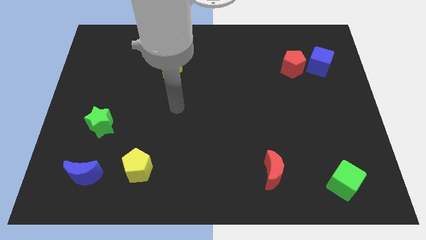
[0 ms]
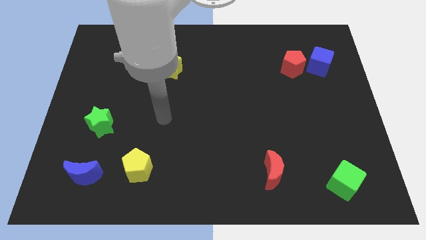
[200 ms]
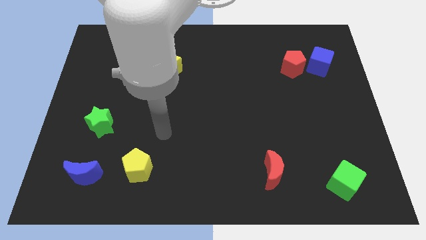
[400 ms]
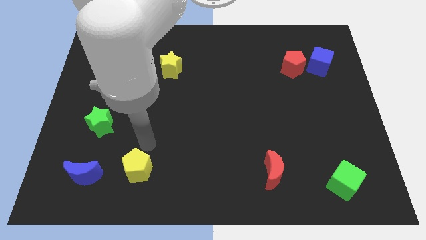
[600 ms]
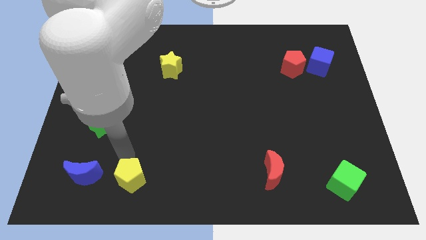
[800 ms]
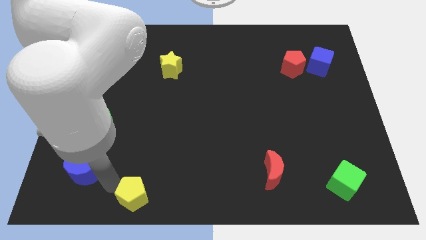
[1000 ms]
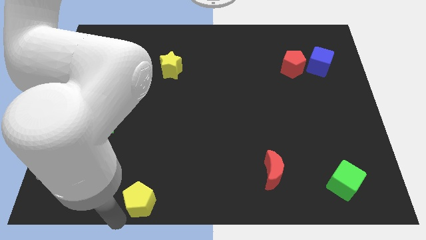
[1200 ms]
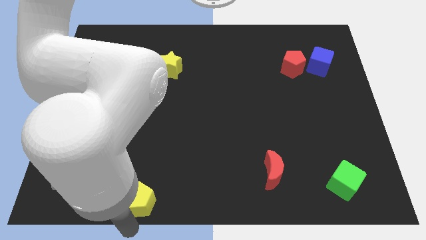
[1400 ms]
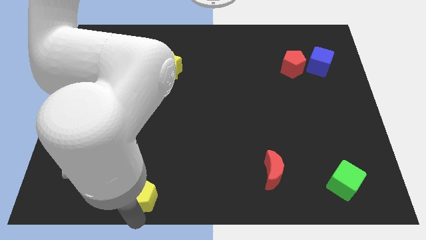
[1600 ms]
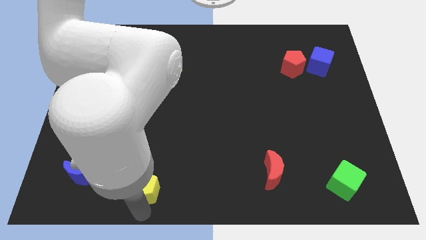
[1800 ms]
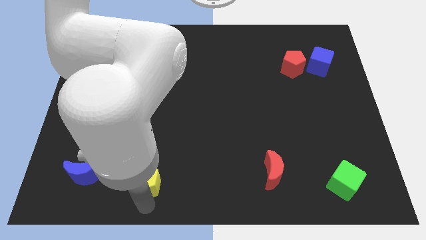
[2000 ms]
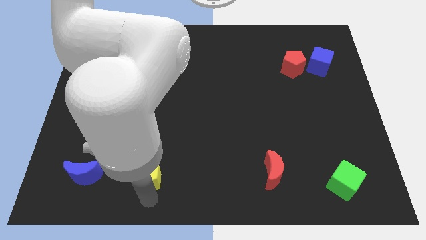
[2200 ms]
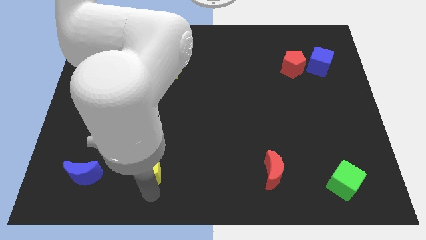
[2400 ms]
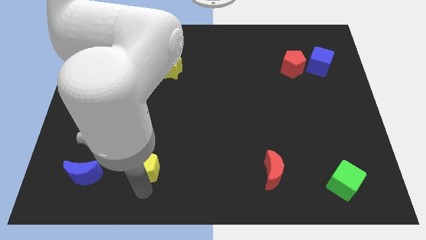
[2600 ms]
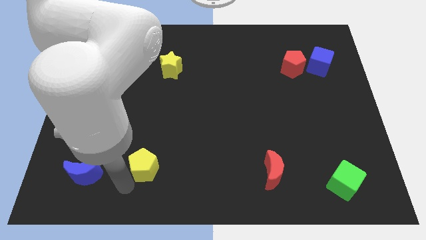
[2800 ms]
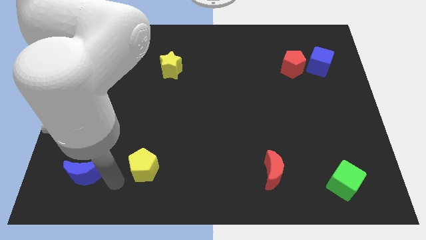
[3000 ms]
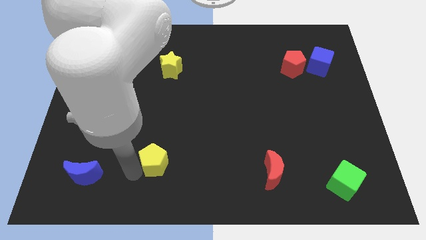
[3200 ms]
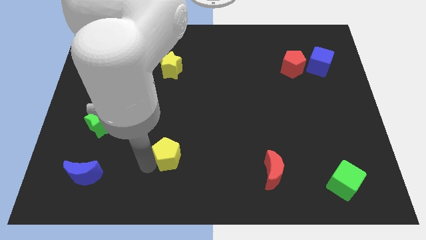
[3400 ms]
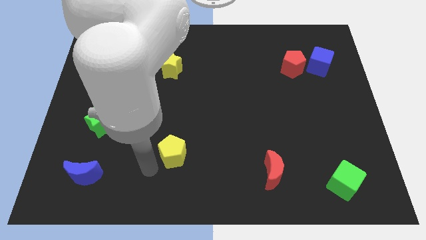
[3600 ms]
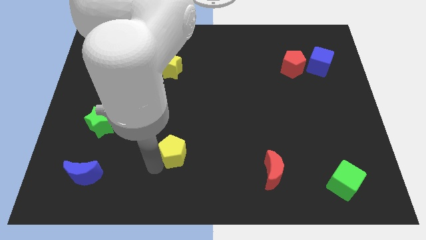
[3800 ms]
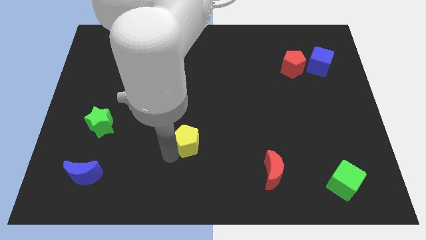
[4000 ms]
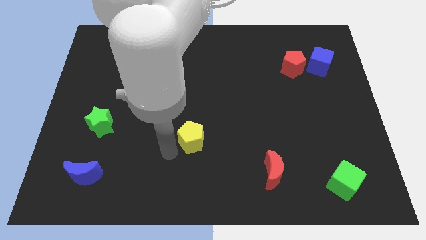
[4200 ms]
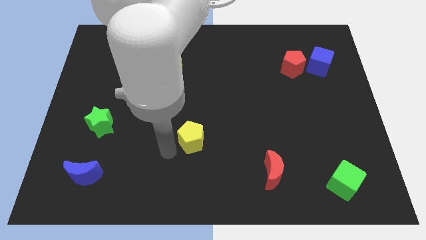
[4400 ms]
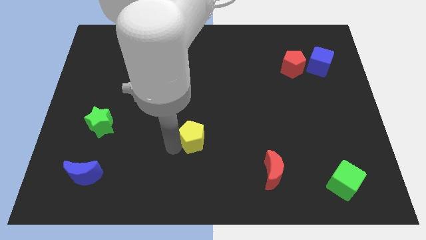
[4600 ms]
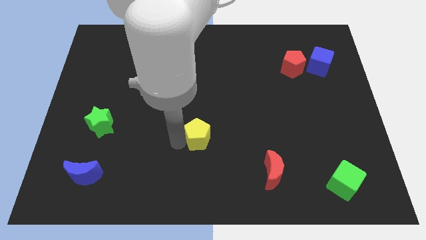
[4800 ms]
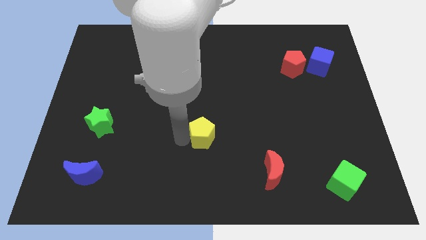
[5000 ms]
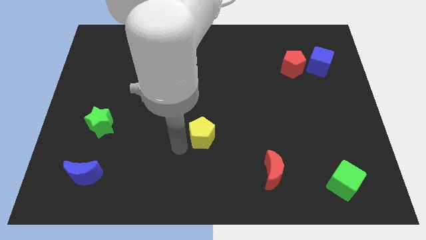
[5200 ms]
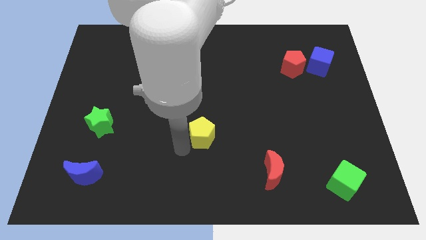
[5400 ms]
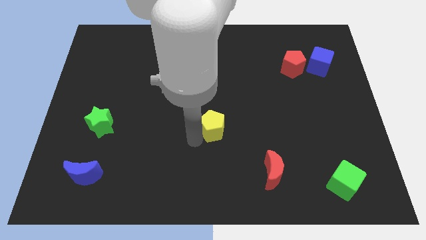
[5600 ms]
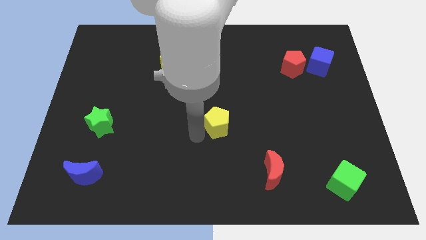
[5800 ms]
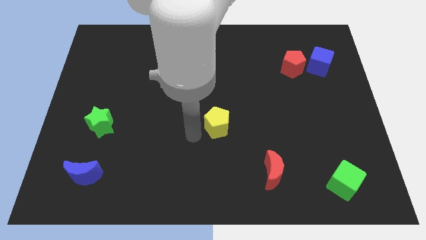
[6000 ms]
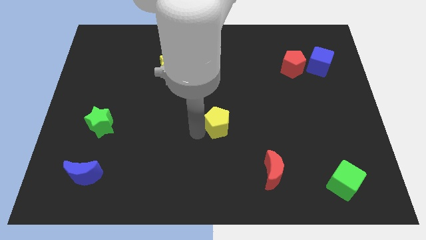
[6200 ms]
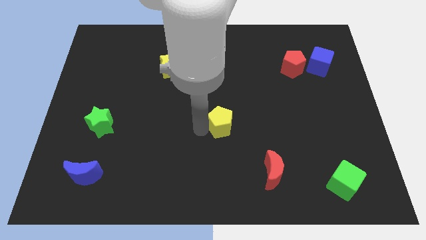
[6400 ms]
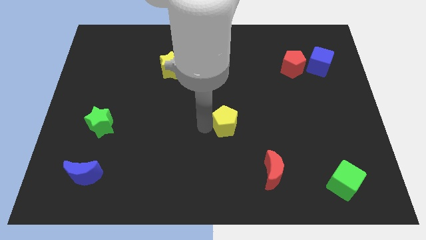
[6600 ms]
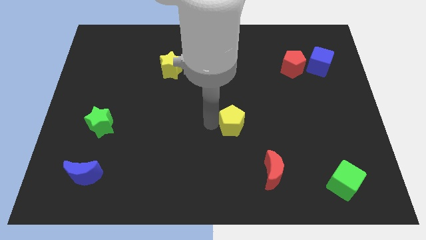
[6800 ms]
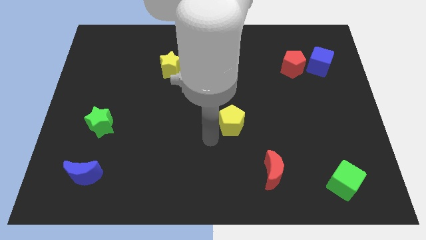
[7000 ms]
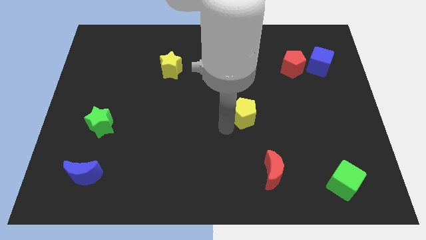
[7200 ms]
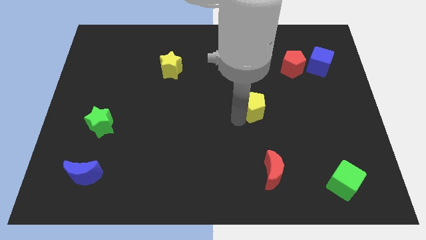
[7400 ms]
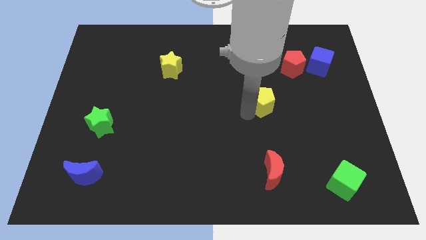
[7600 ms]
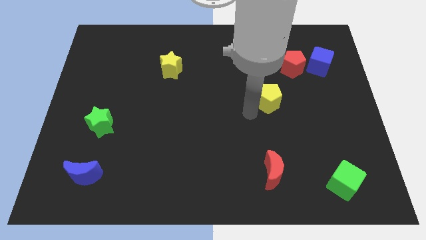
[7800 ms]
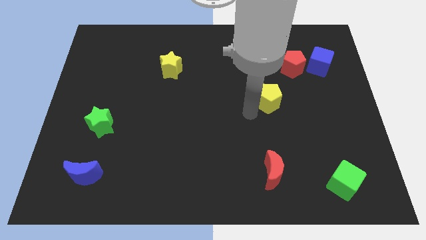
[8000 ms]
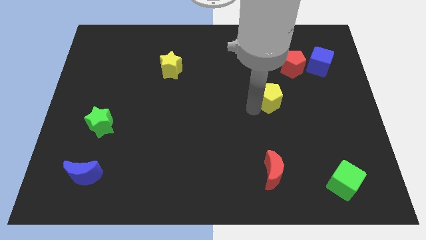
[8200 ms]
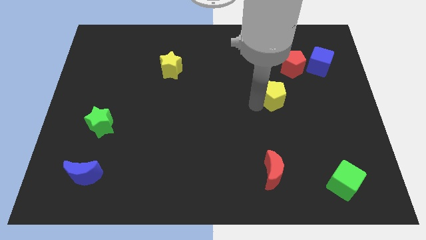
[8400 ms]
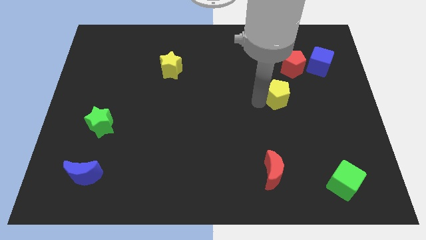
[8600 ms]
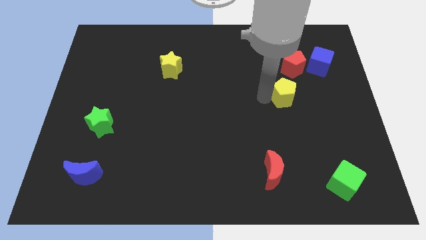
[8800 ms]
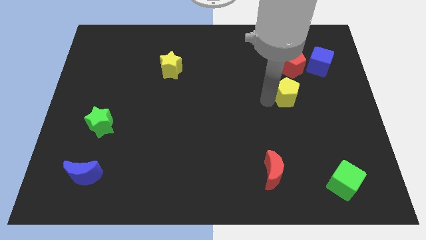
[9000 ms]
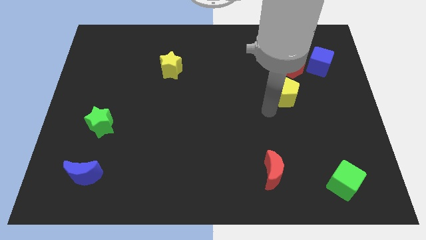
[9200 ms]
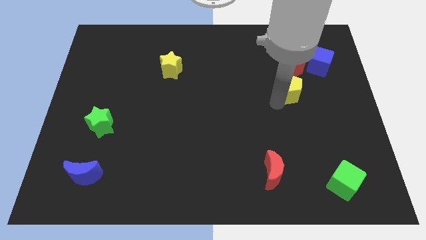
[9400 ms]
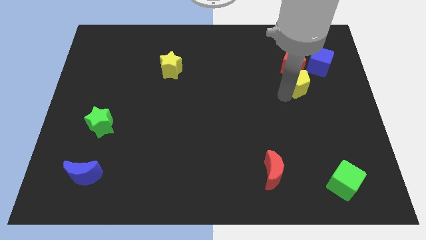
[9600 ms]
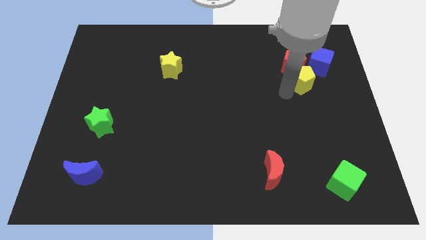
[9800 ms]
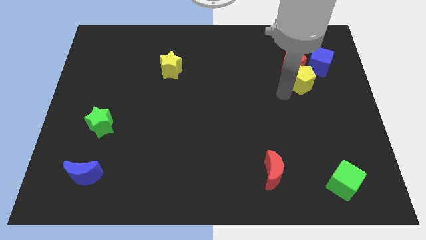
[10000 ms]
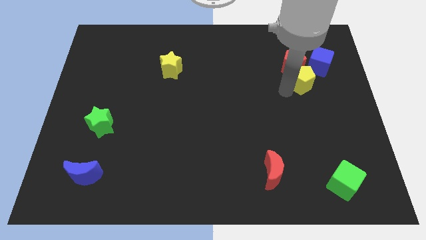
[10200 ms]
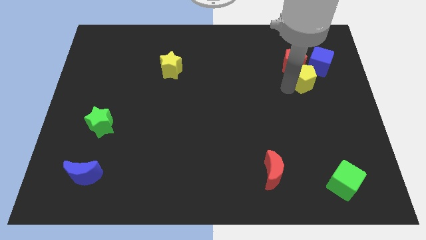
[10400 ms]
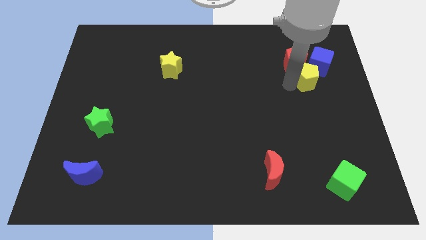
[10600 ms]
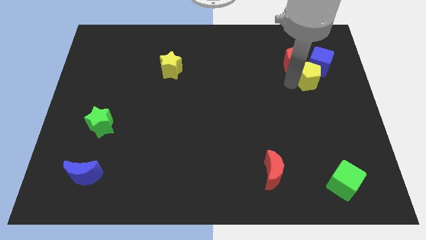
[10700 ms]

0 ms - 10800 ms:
move the yellow pentagon to the blue cube

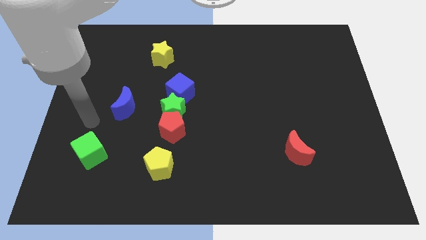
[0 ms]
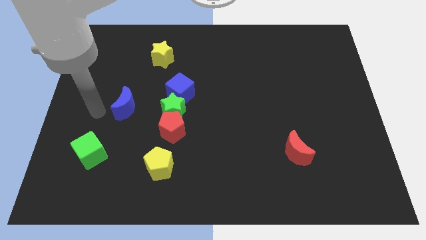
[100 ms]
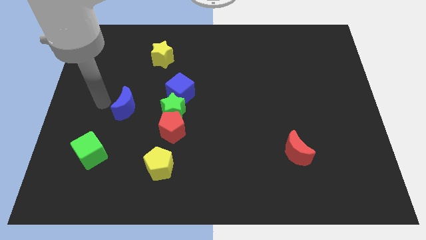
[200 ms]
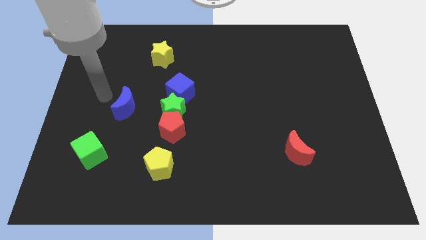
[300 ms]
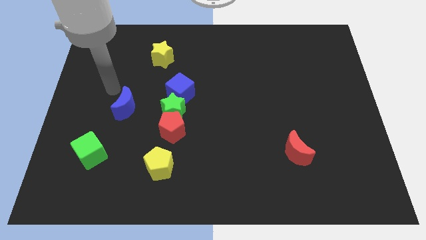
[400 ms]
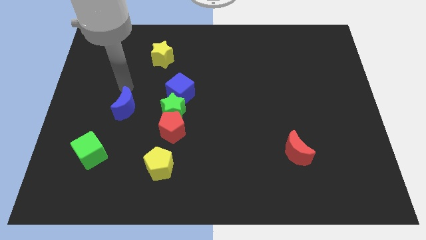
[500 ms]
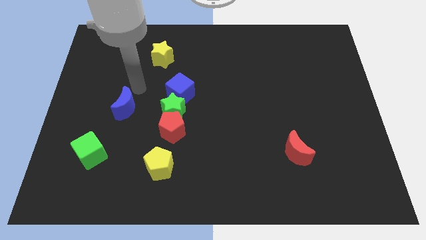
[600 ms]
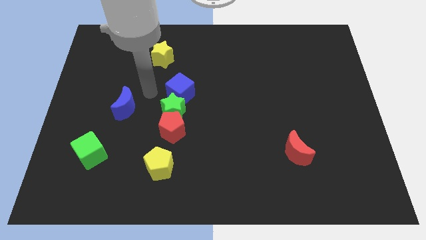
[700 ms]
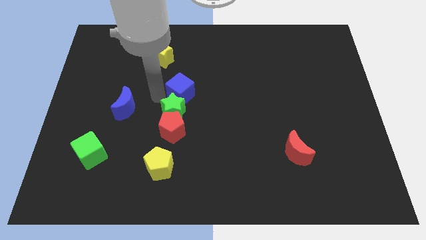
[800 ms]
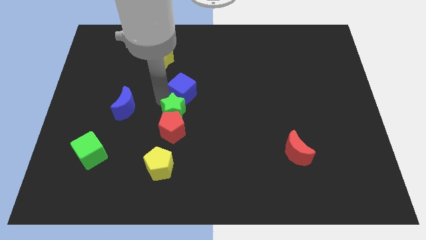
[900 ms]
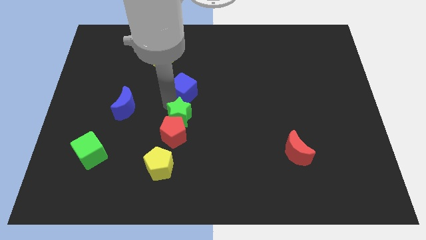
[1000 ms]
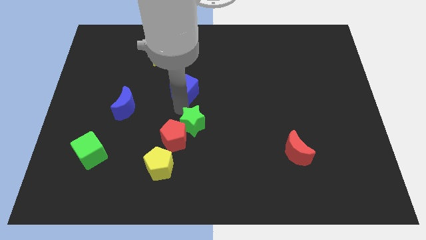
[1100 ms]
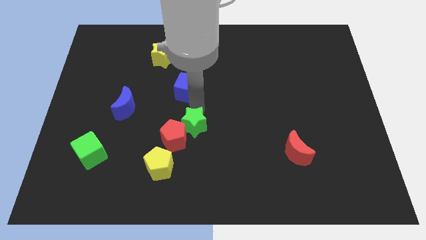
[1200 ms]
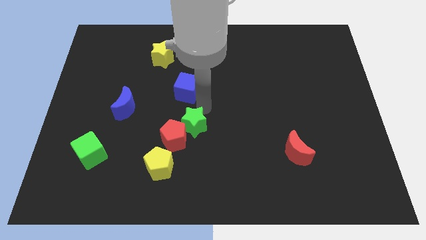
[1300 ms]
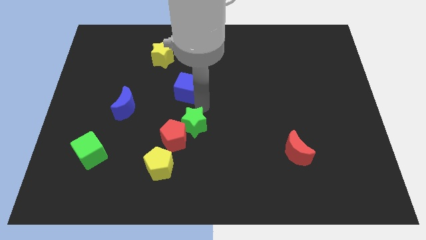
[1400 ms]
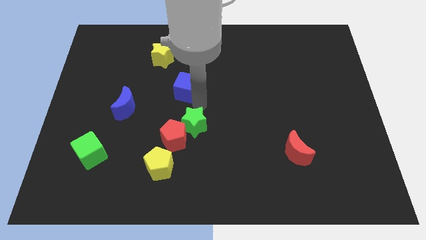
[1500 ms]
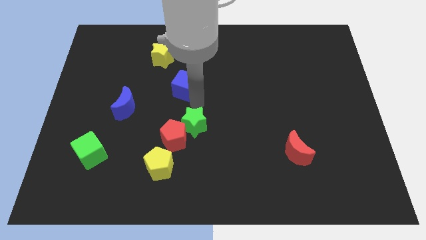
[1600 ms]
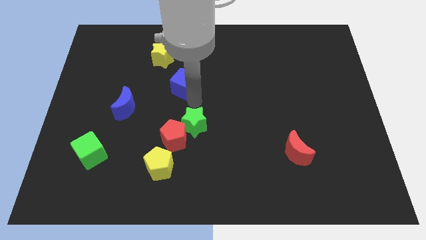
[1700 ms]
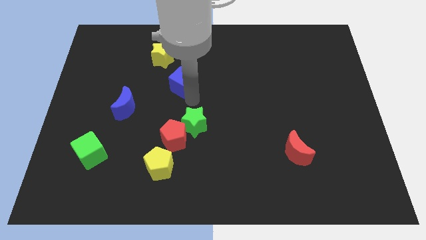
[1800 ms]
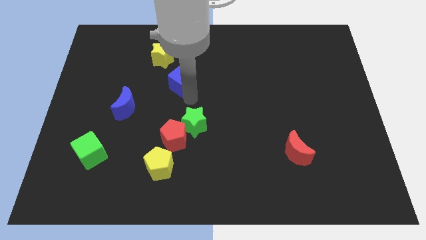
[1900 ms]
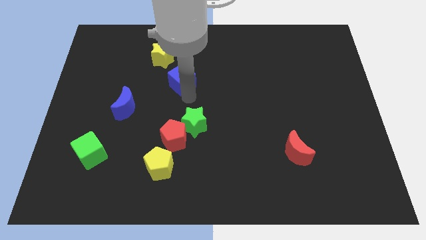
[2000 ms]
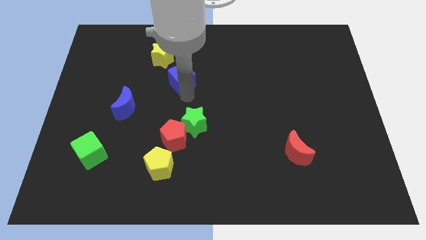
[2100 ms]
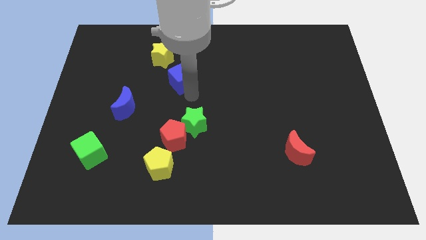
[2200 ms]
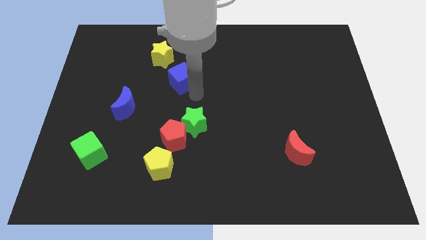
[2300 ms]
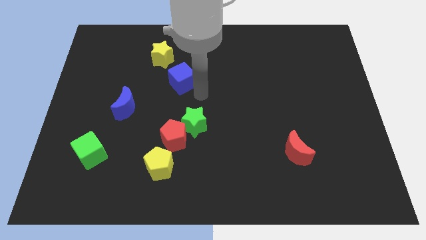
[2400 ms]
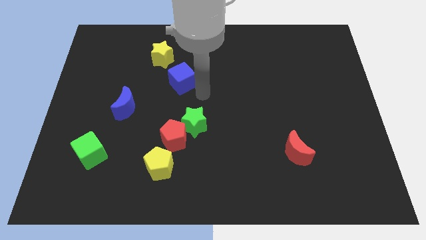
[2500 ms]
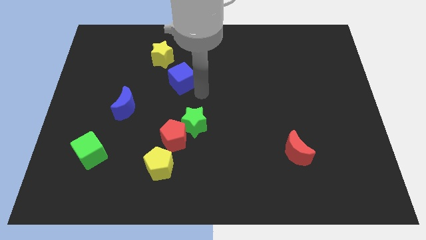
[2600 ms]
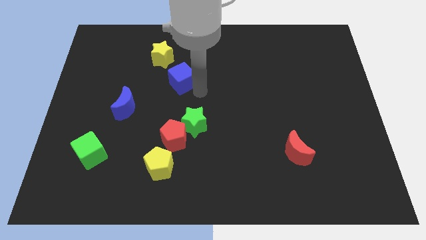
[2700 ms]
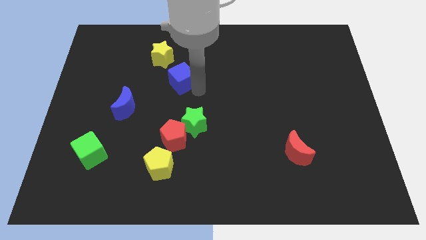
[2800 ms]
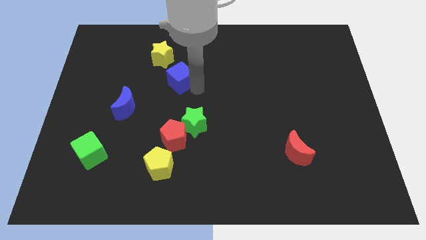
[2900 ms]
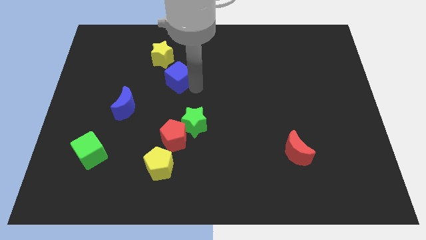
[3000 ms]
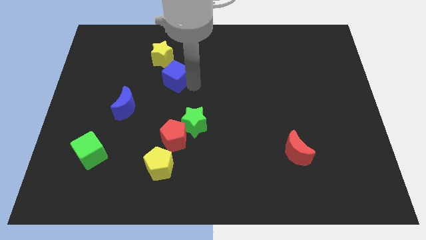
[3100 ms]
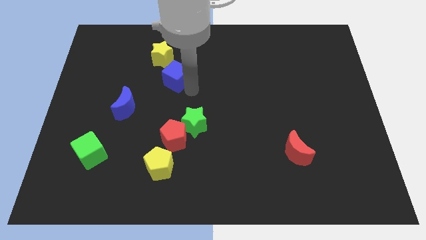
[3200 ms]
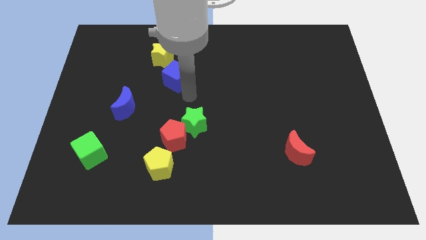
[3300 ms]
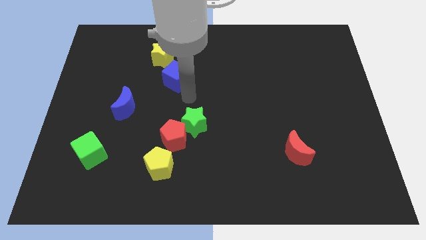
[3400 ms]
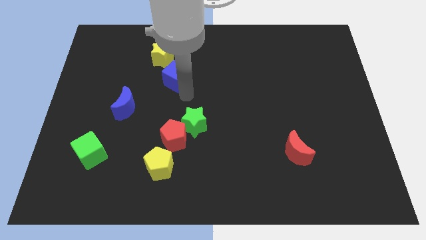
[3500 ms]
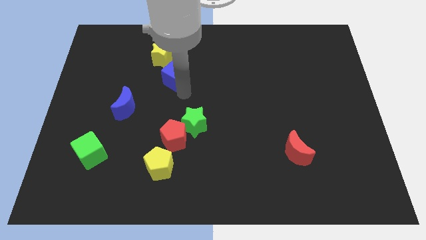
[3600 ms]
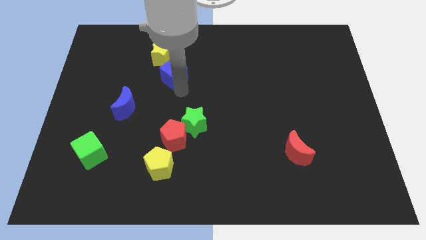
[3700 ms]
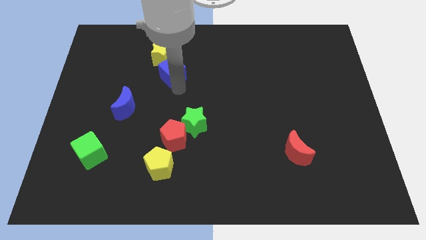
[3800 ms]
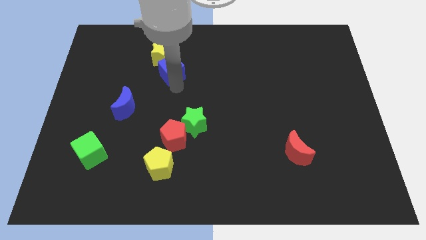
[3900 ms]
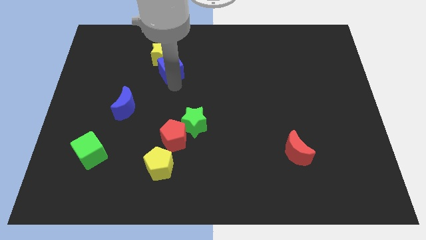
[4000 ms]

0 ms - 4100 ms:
slide the blue cube next to the yellow star
